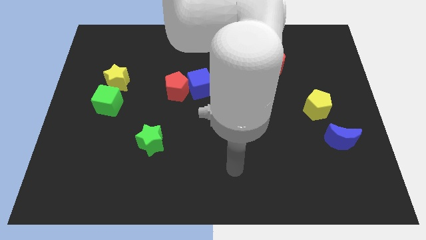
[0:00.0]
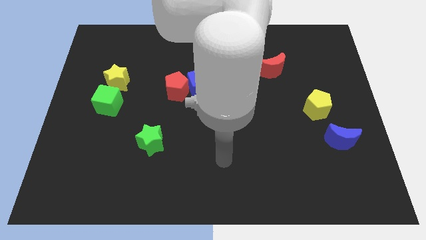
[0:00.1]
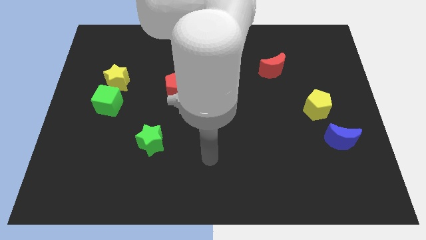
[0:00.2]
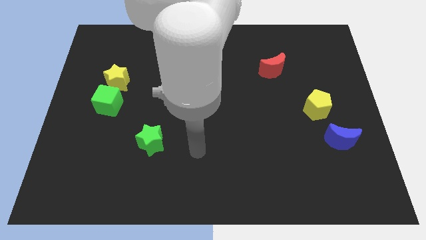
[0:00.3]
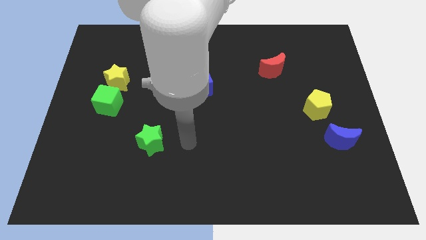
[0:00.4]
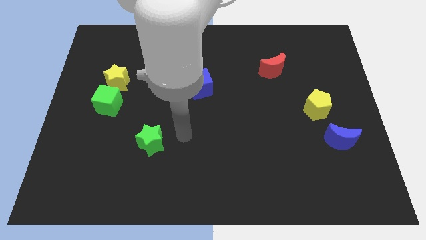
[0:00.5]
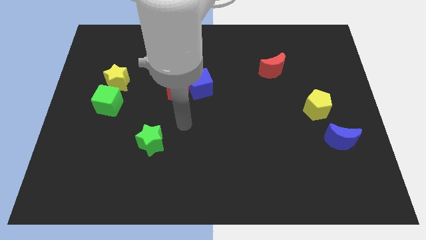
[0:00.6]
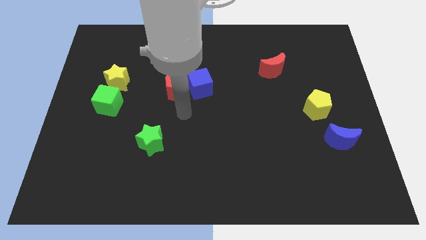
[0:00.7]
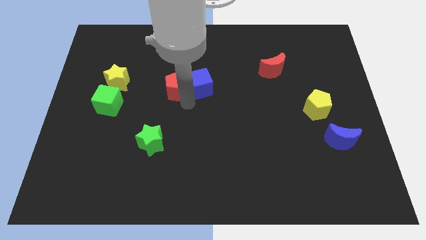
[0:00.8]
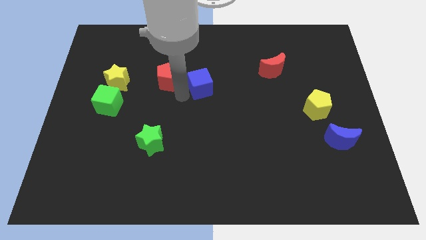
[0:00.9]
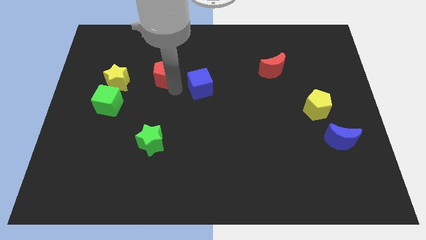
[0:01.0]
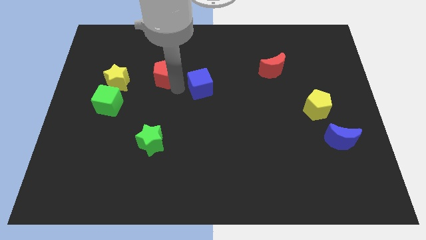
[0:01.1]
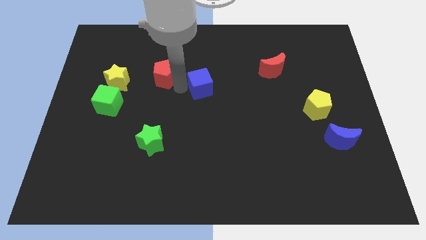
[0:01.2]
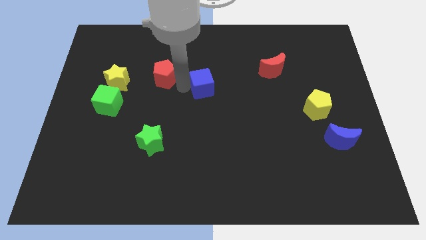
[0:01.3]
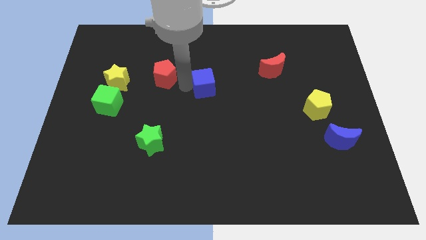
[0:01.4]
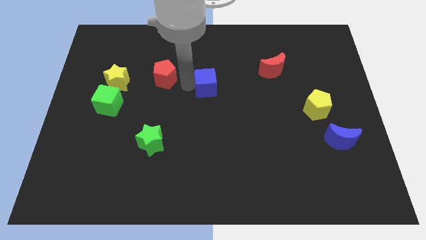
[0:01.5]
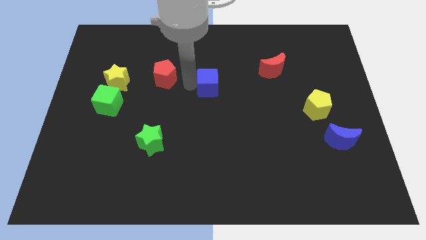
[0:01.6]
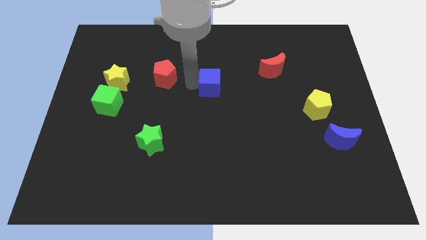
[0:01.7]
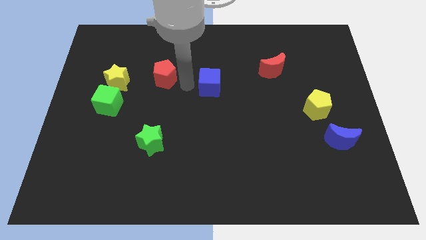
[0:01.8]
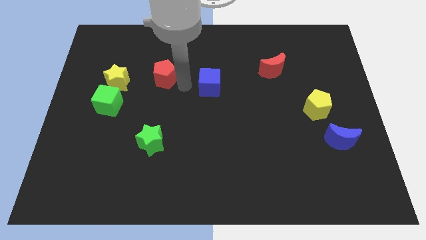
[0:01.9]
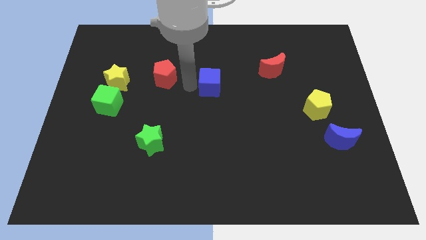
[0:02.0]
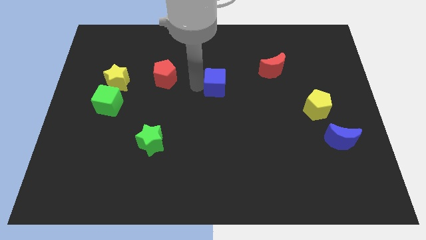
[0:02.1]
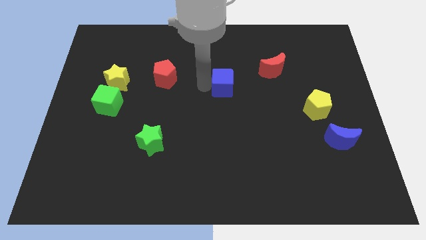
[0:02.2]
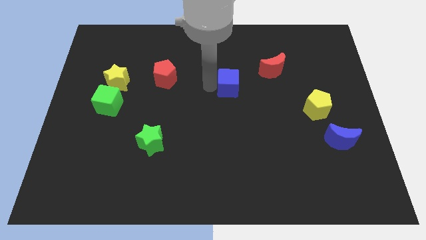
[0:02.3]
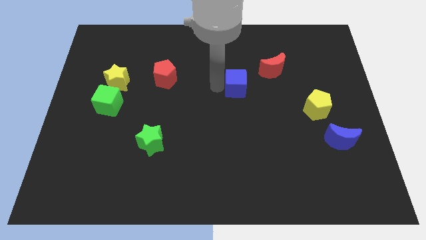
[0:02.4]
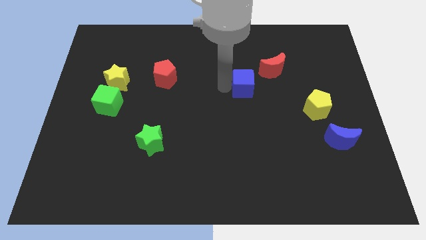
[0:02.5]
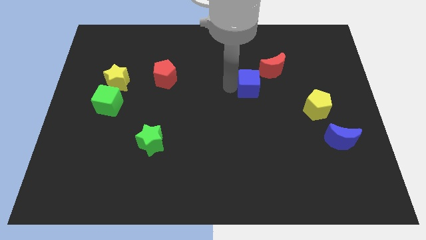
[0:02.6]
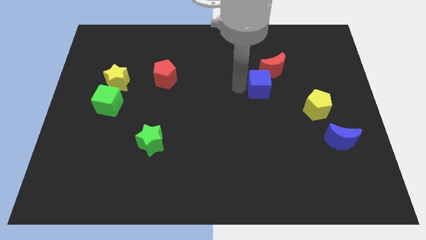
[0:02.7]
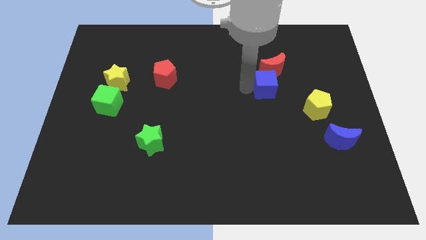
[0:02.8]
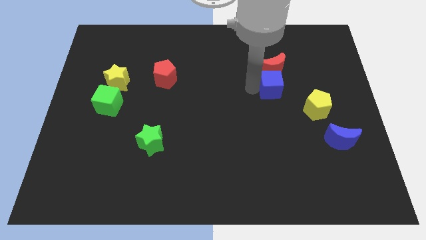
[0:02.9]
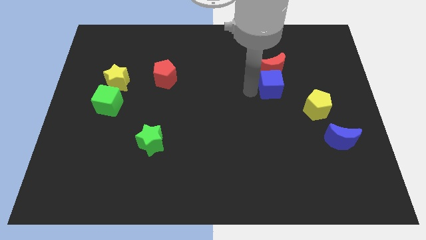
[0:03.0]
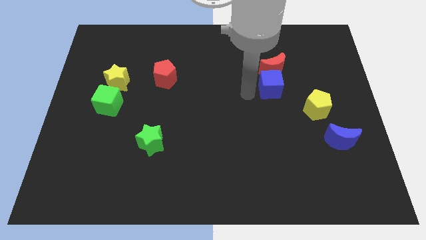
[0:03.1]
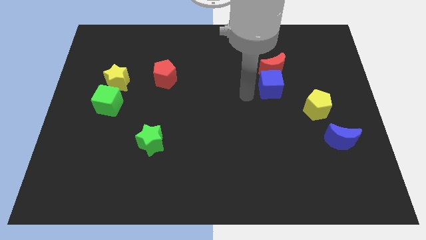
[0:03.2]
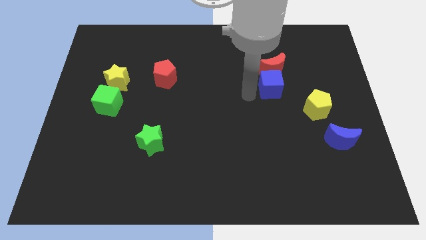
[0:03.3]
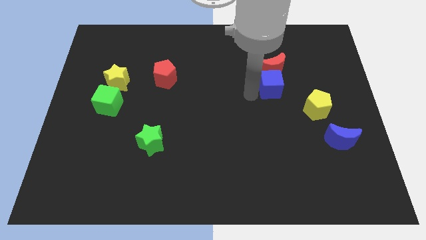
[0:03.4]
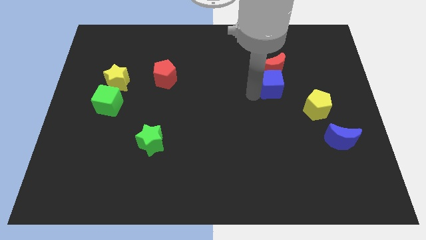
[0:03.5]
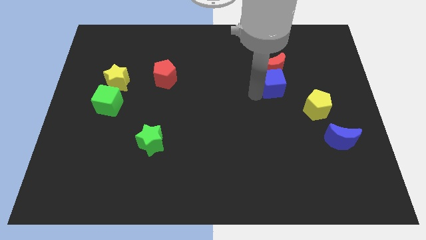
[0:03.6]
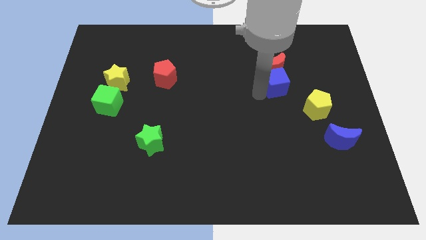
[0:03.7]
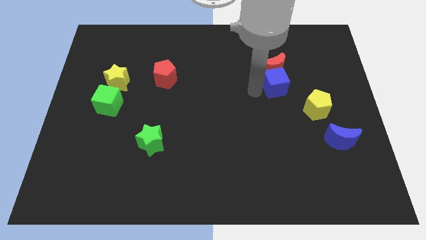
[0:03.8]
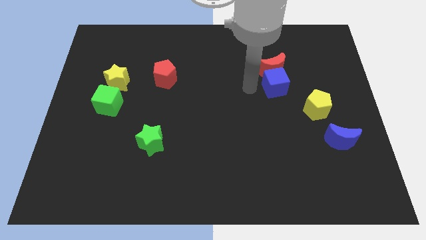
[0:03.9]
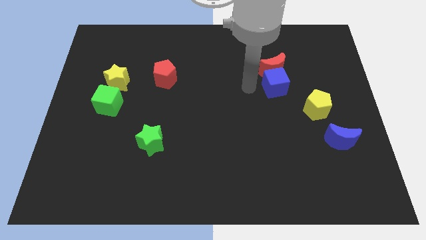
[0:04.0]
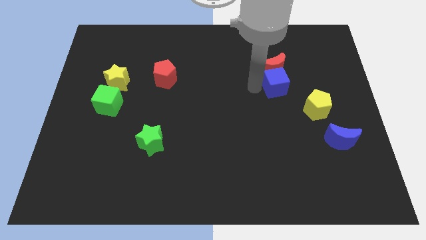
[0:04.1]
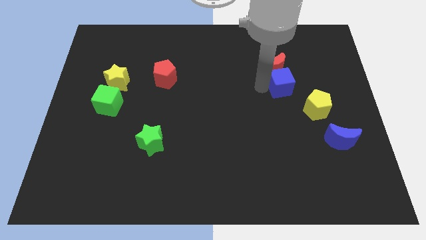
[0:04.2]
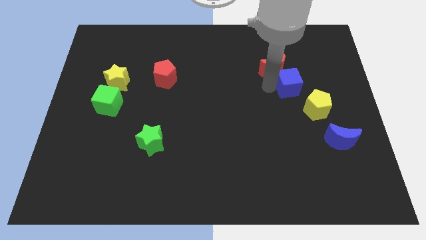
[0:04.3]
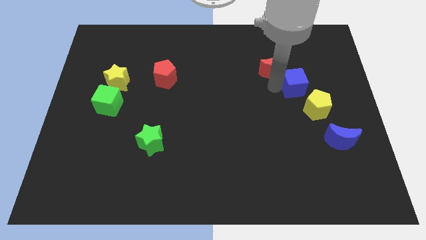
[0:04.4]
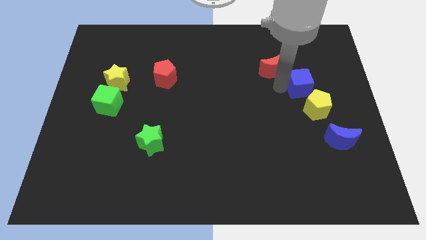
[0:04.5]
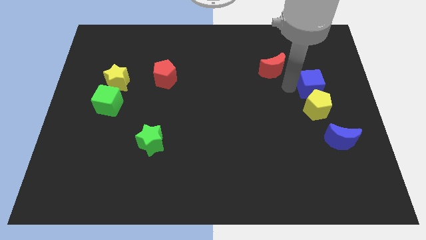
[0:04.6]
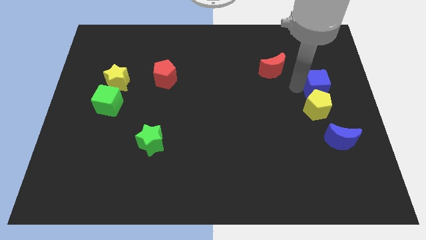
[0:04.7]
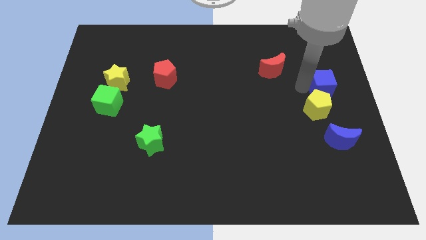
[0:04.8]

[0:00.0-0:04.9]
push the blue cube to the right side

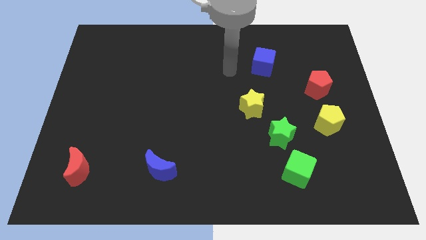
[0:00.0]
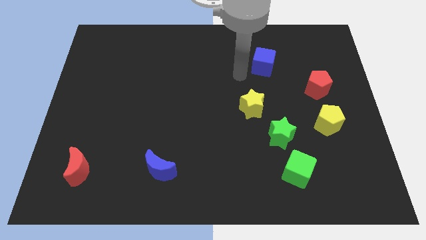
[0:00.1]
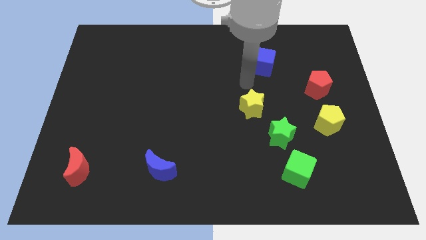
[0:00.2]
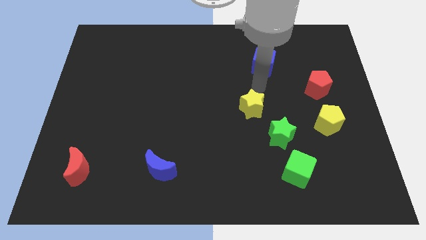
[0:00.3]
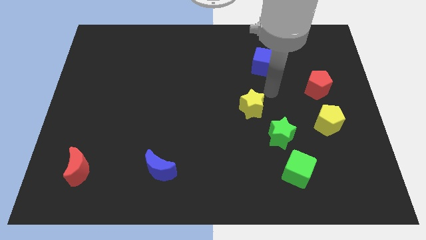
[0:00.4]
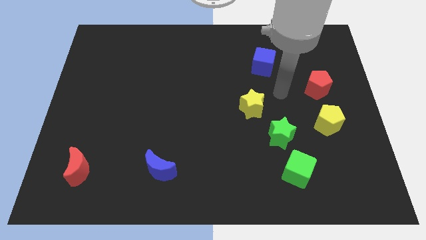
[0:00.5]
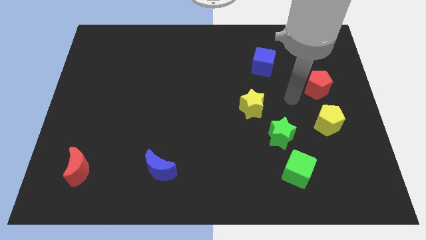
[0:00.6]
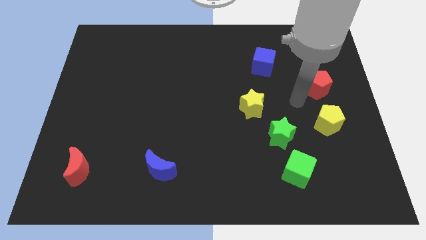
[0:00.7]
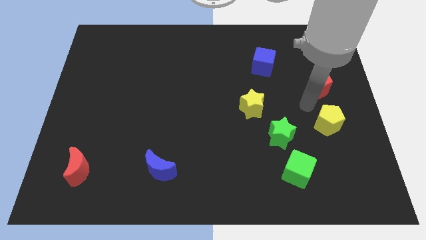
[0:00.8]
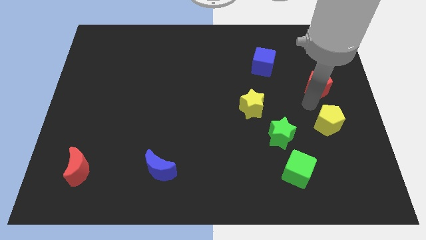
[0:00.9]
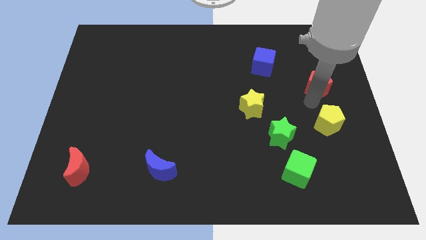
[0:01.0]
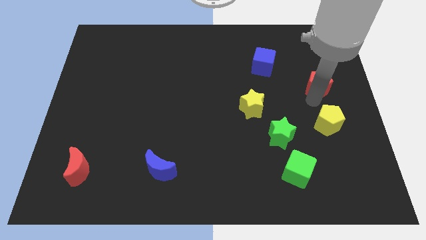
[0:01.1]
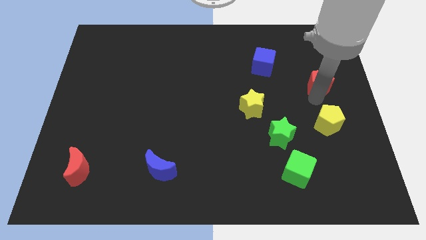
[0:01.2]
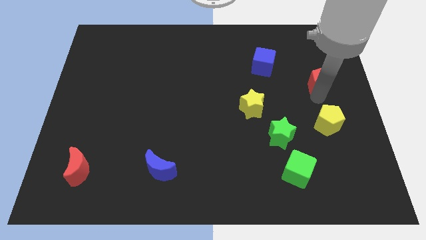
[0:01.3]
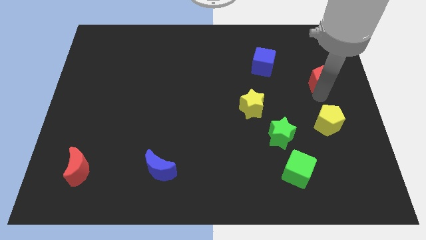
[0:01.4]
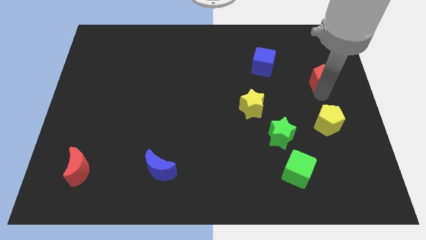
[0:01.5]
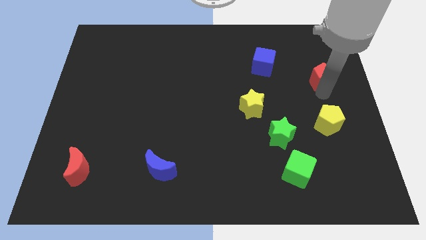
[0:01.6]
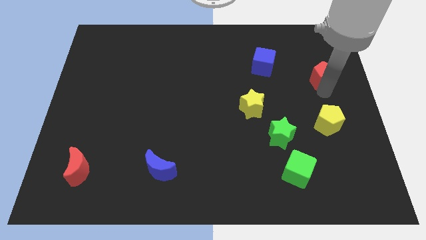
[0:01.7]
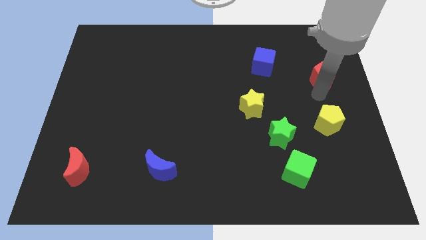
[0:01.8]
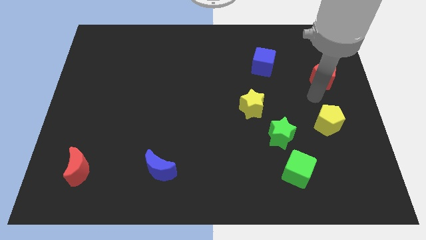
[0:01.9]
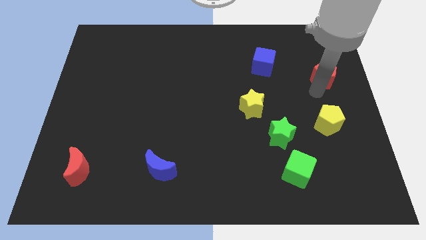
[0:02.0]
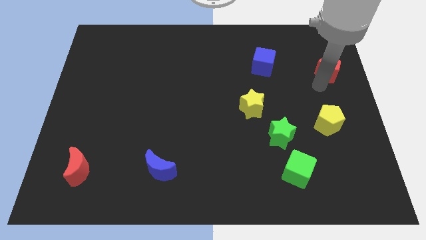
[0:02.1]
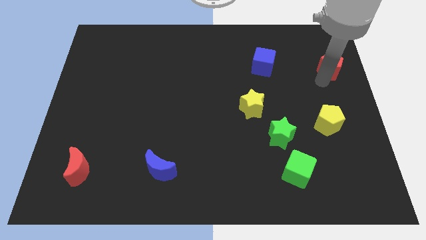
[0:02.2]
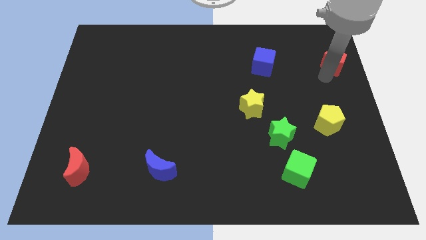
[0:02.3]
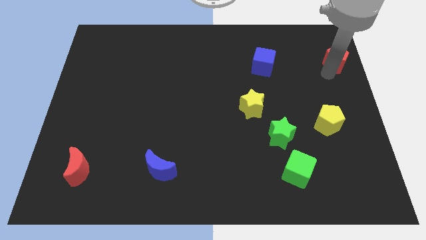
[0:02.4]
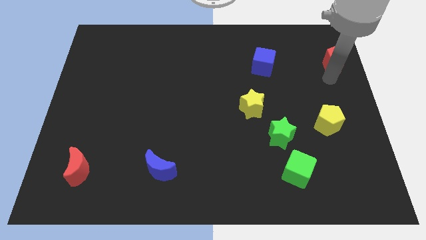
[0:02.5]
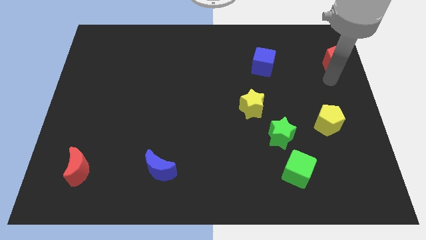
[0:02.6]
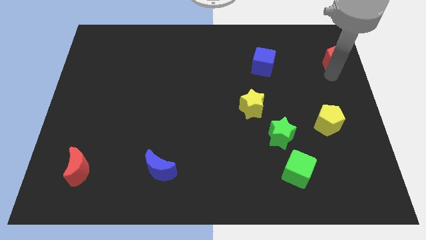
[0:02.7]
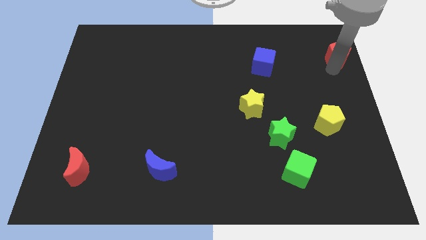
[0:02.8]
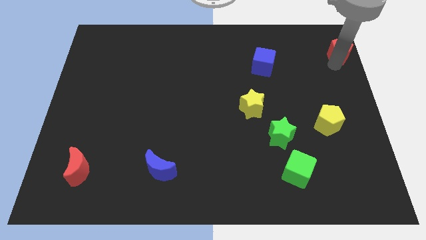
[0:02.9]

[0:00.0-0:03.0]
put the red pentagon to the top right of the board
